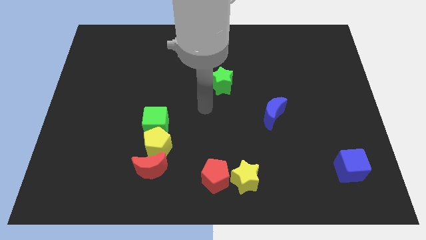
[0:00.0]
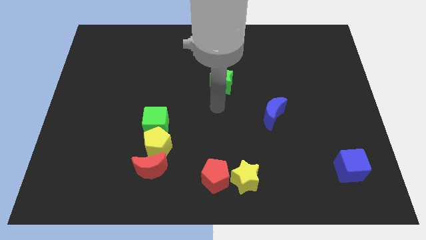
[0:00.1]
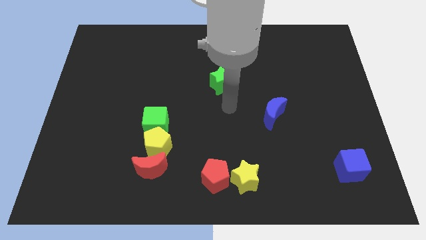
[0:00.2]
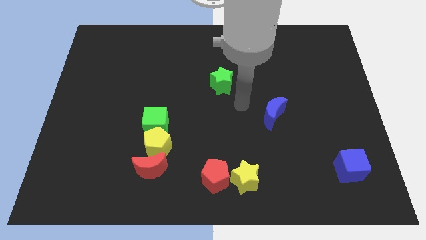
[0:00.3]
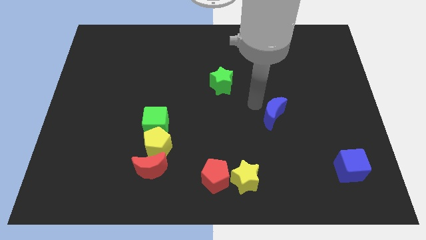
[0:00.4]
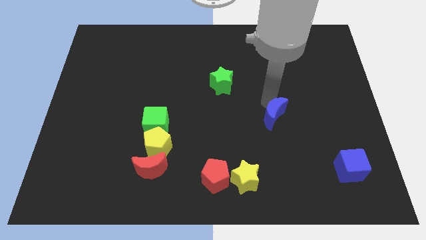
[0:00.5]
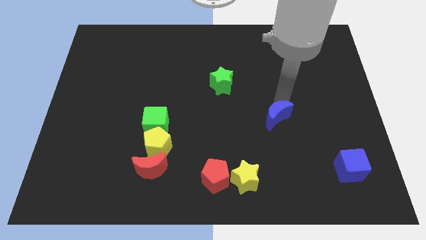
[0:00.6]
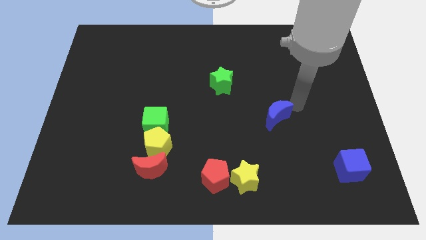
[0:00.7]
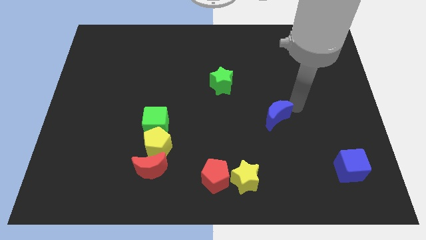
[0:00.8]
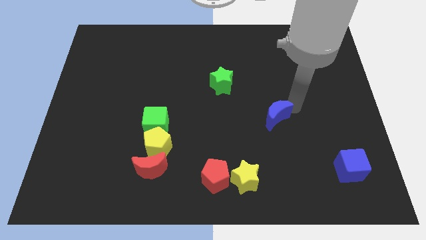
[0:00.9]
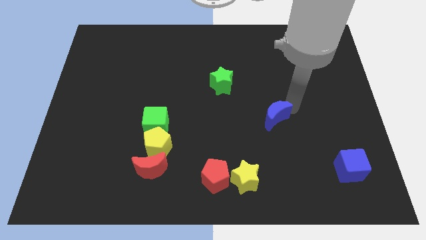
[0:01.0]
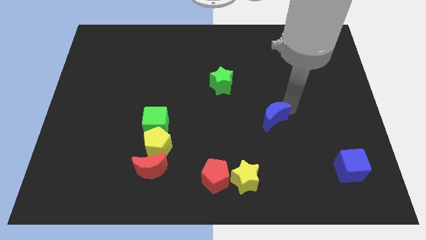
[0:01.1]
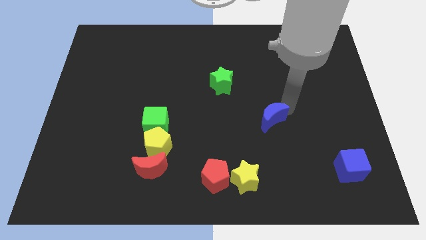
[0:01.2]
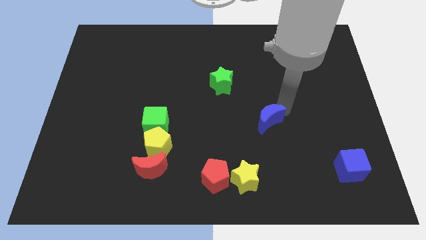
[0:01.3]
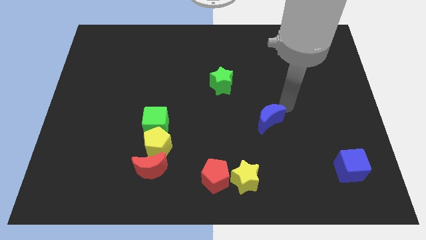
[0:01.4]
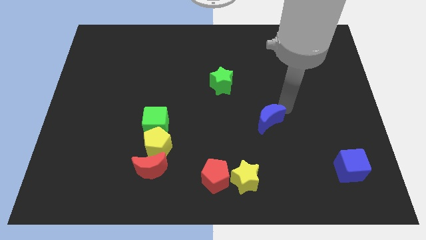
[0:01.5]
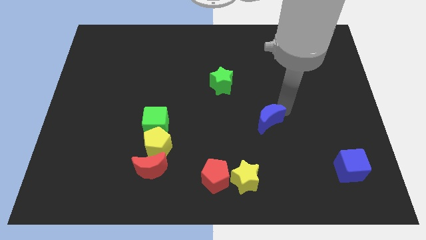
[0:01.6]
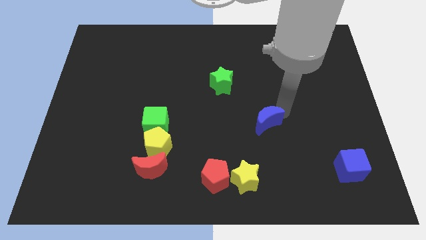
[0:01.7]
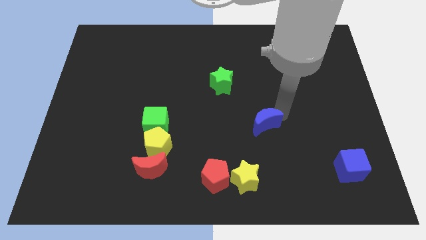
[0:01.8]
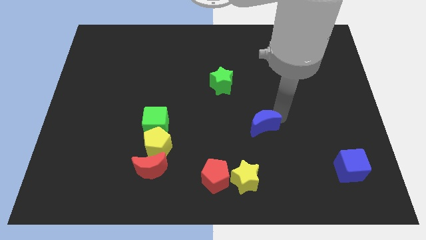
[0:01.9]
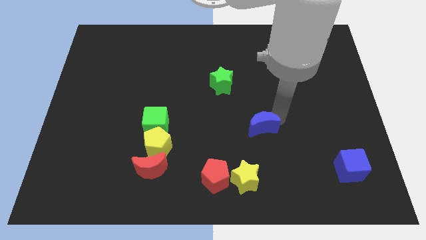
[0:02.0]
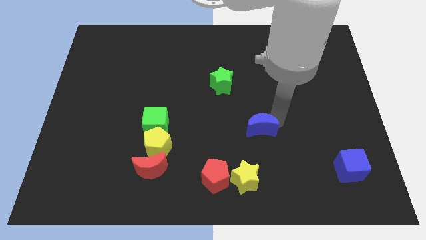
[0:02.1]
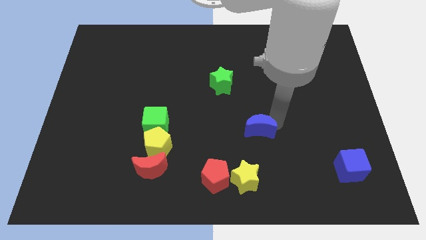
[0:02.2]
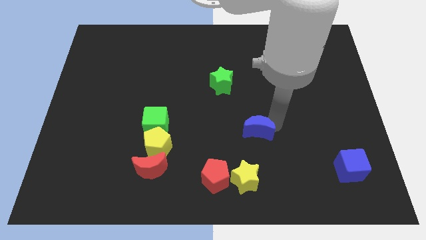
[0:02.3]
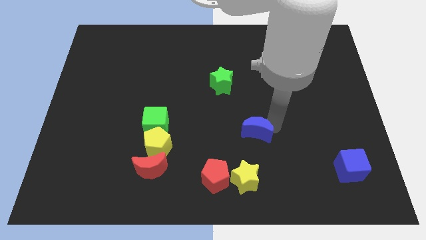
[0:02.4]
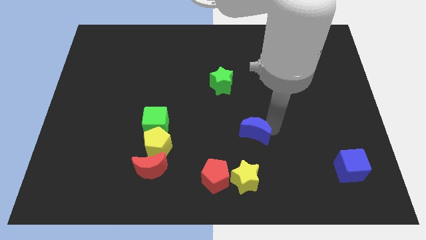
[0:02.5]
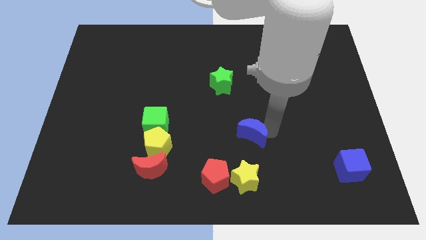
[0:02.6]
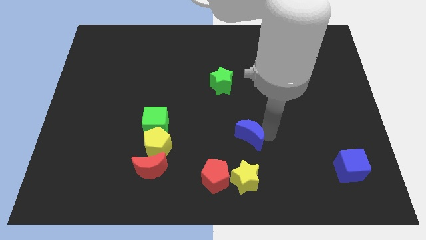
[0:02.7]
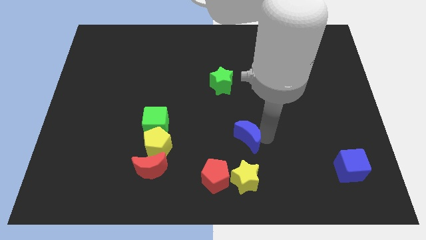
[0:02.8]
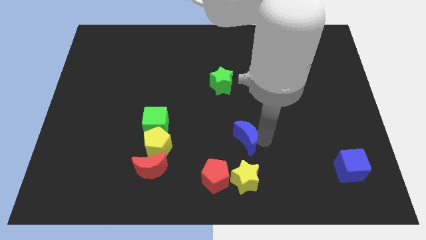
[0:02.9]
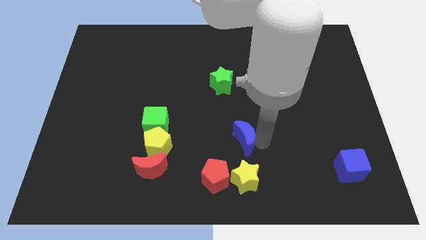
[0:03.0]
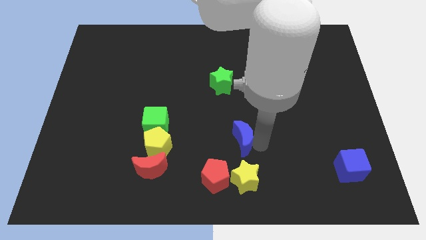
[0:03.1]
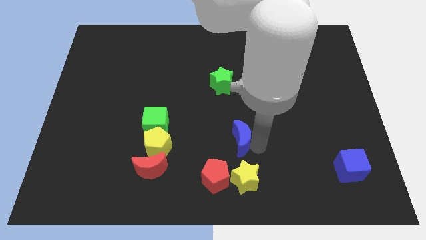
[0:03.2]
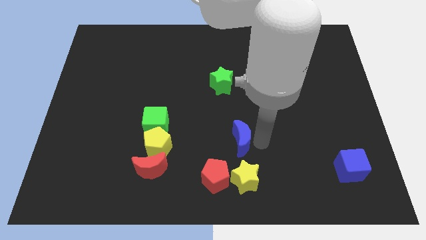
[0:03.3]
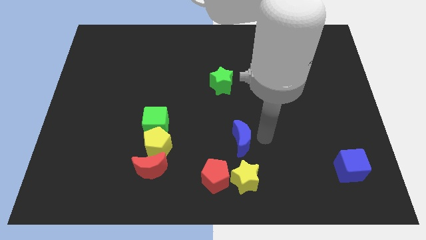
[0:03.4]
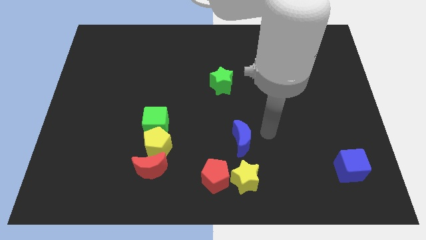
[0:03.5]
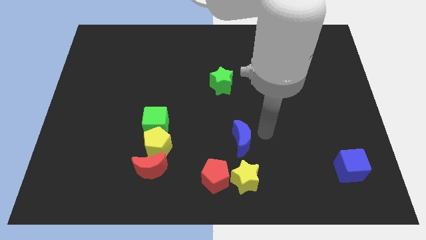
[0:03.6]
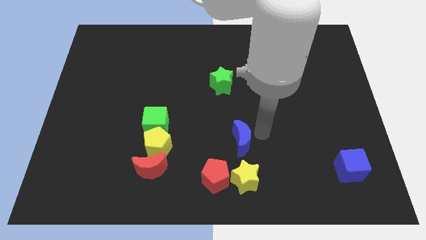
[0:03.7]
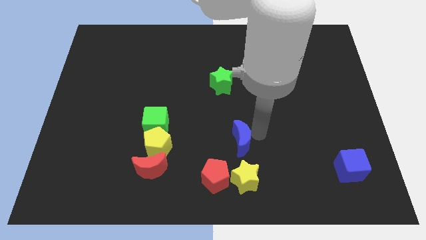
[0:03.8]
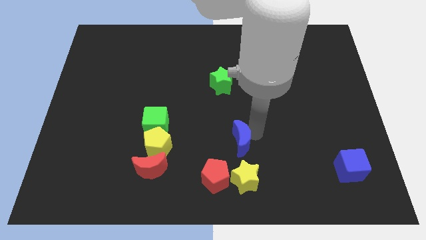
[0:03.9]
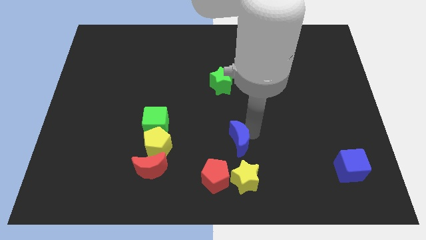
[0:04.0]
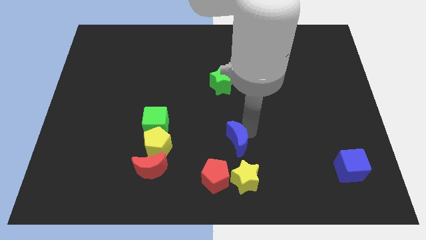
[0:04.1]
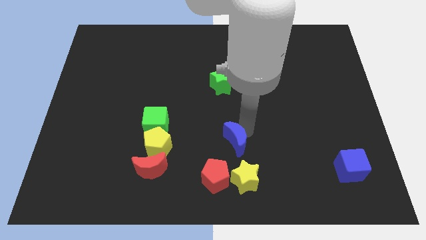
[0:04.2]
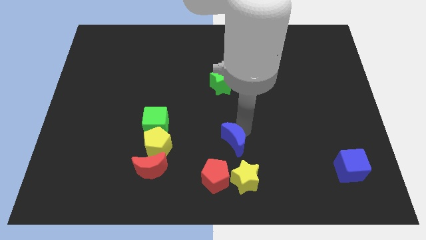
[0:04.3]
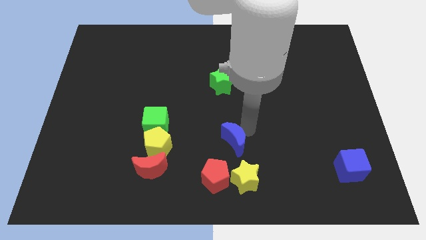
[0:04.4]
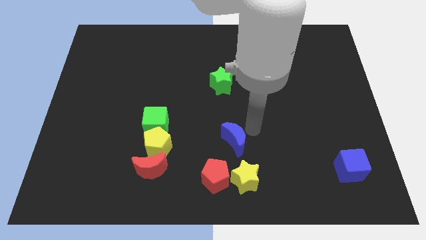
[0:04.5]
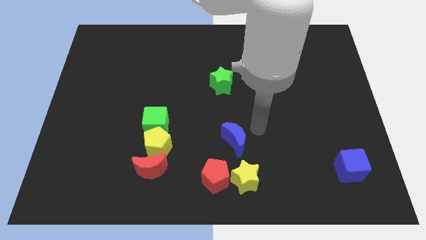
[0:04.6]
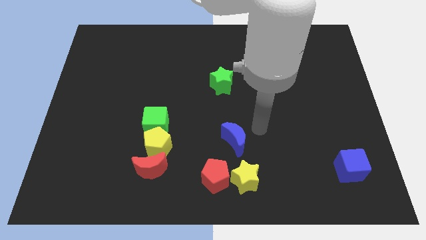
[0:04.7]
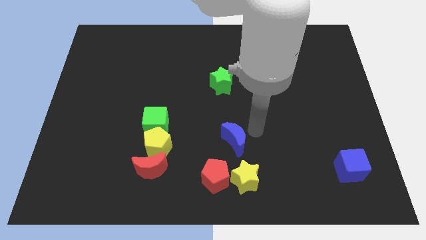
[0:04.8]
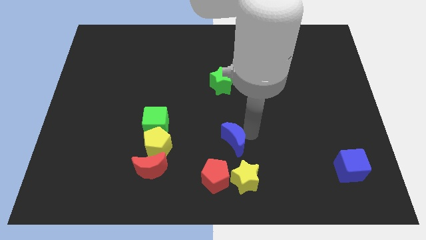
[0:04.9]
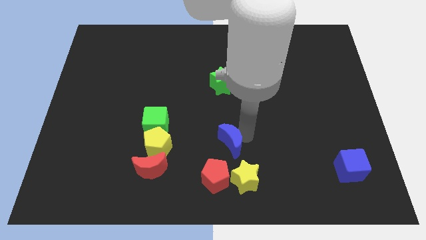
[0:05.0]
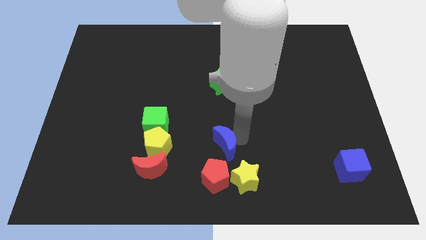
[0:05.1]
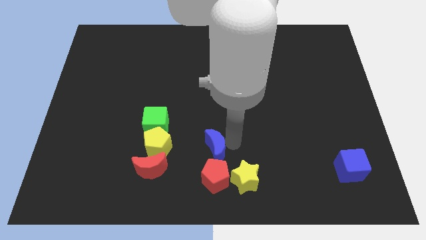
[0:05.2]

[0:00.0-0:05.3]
slide the blue moon to the top left side of the red pentagon

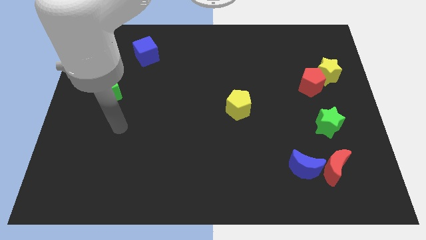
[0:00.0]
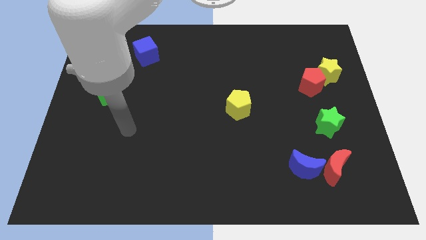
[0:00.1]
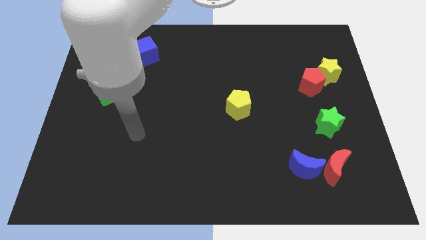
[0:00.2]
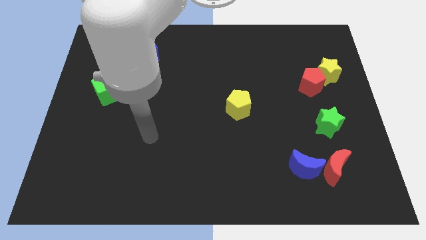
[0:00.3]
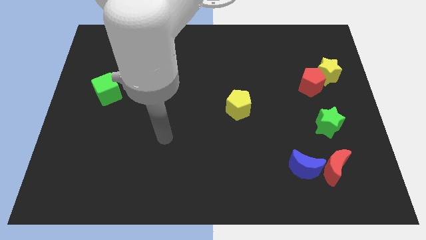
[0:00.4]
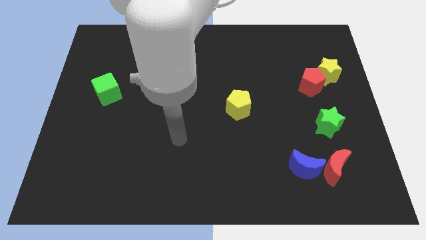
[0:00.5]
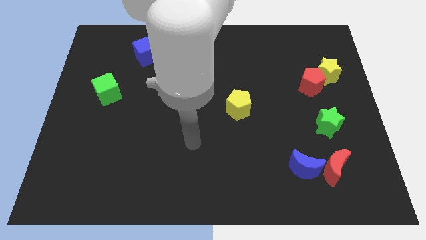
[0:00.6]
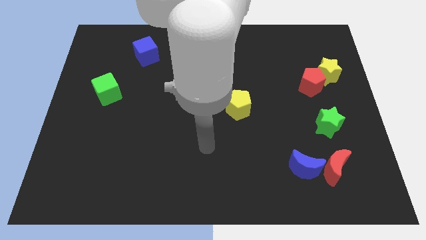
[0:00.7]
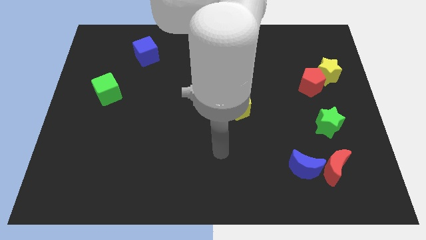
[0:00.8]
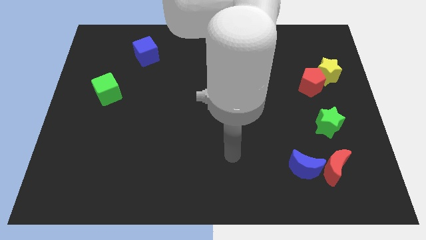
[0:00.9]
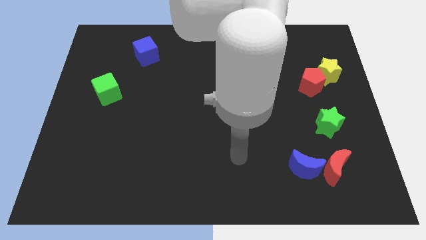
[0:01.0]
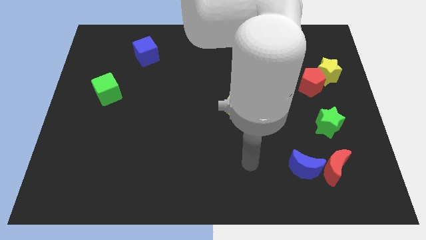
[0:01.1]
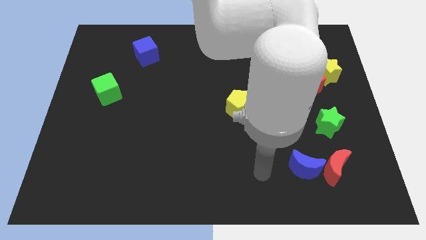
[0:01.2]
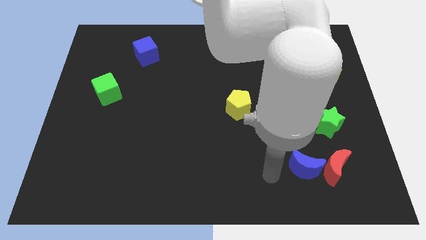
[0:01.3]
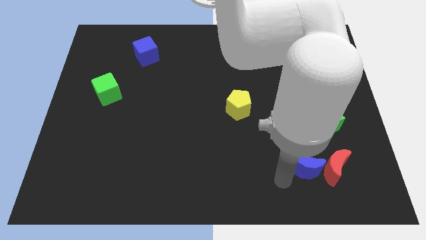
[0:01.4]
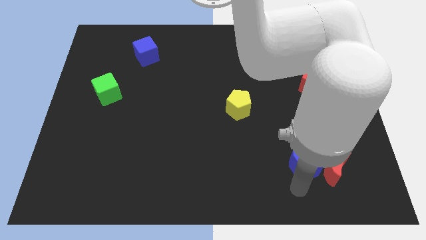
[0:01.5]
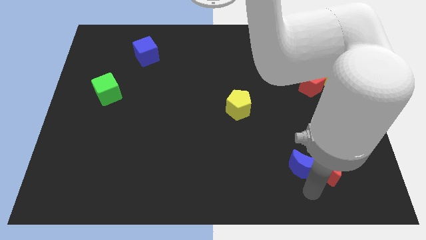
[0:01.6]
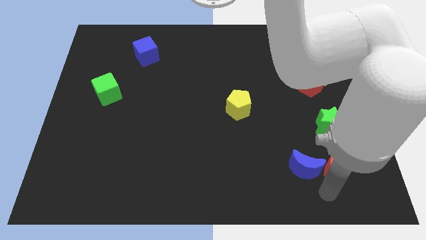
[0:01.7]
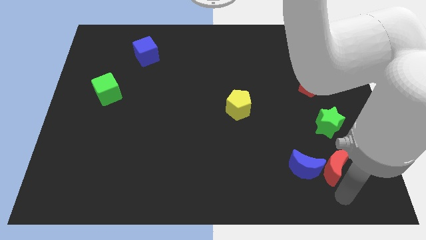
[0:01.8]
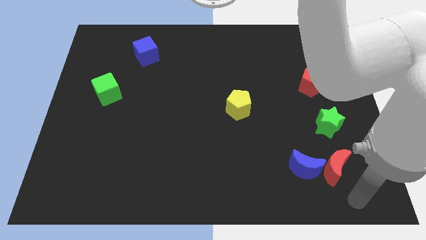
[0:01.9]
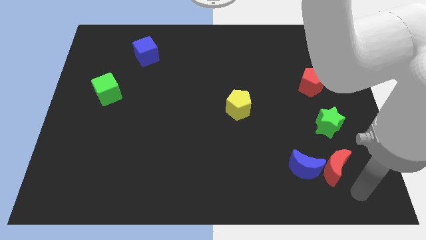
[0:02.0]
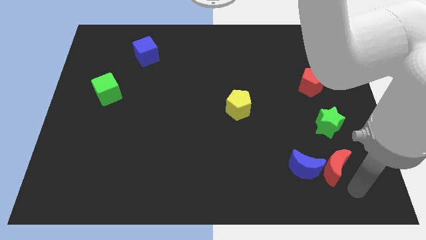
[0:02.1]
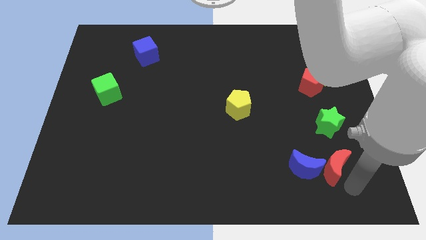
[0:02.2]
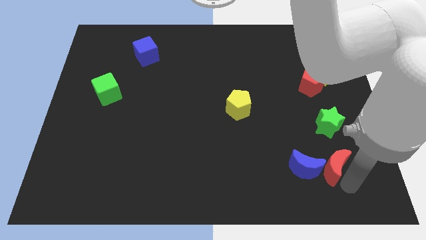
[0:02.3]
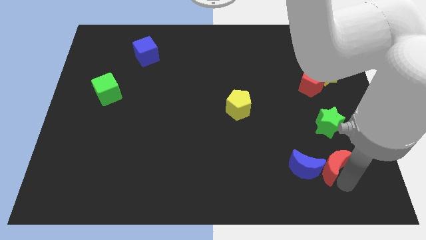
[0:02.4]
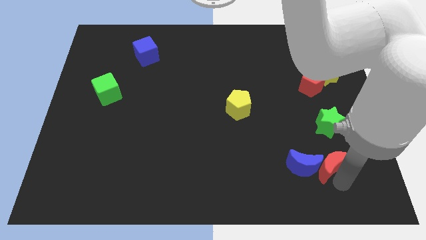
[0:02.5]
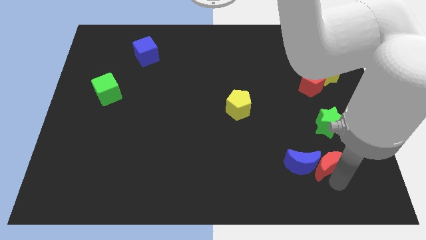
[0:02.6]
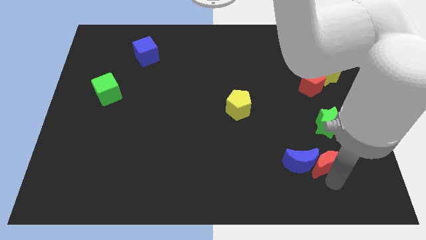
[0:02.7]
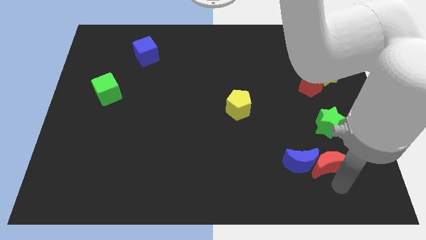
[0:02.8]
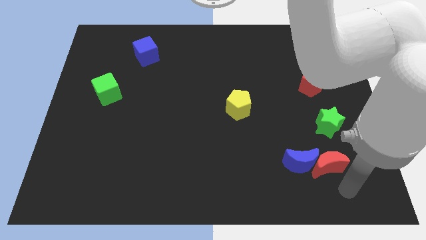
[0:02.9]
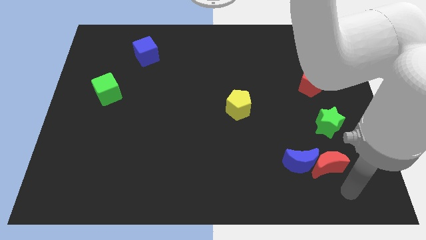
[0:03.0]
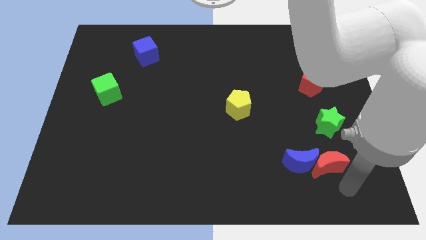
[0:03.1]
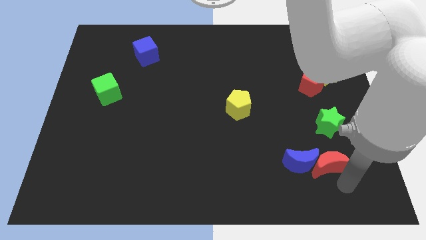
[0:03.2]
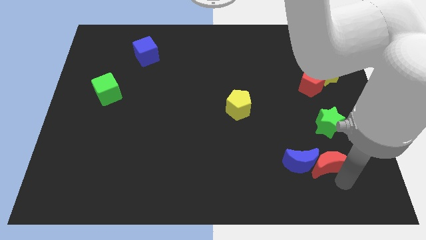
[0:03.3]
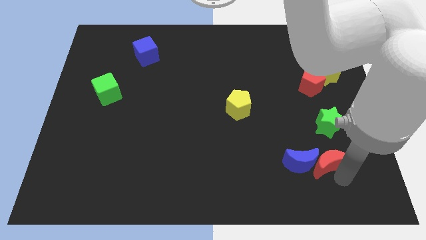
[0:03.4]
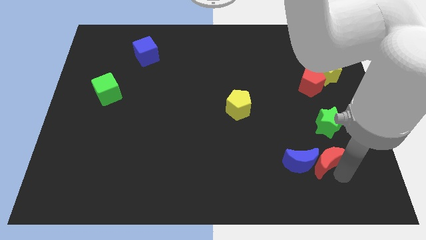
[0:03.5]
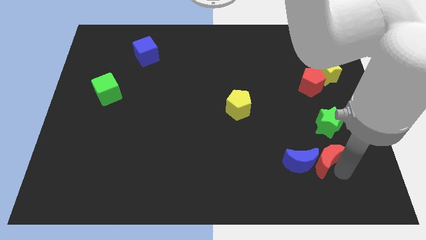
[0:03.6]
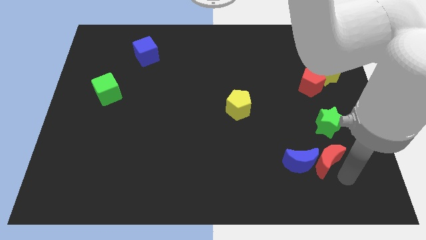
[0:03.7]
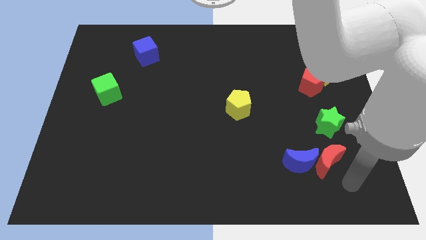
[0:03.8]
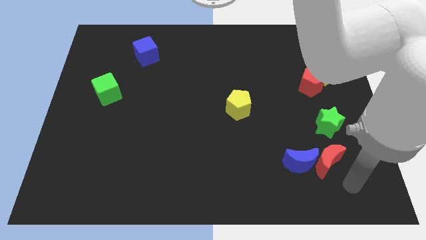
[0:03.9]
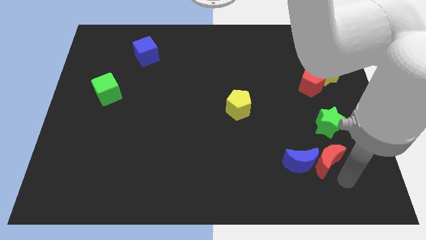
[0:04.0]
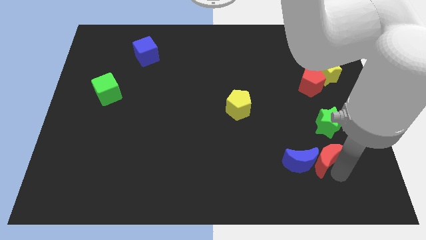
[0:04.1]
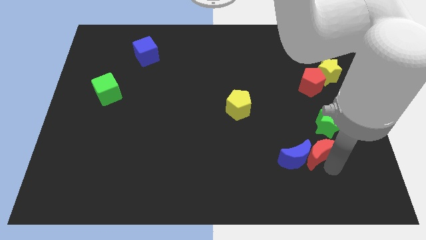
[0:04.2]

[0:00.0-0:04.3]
push the red moon to the bottom left side of the green star
